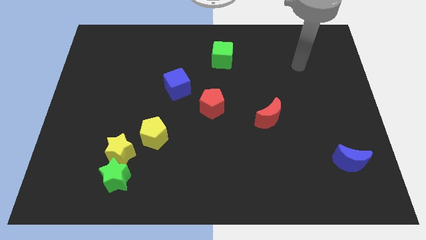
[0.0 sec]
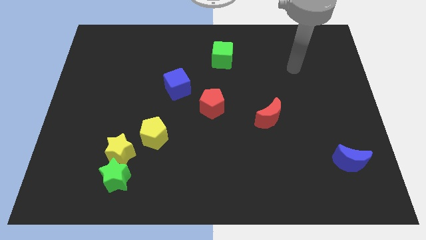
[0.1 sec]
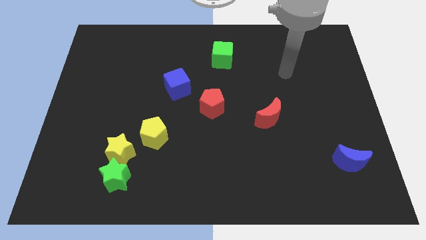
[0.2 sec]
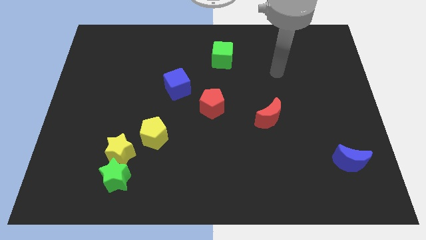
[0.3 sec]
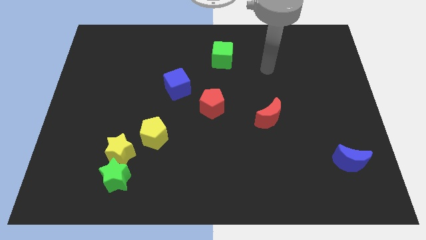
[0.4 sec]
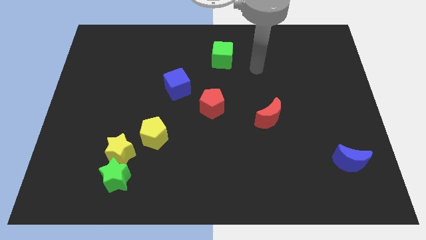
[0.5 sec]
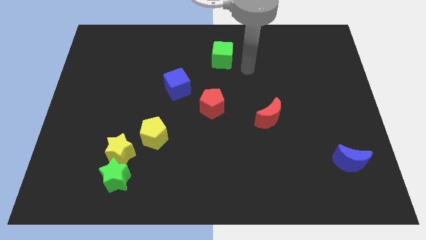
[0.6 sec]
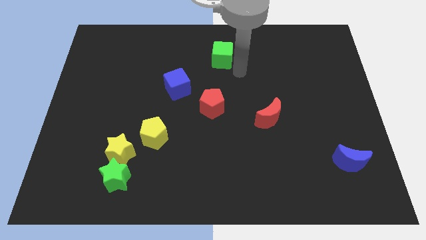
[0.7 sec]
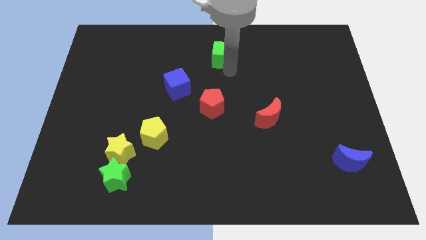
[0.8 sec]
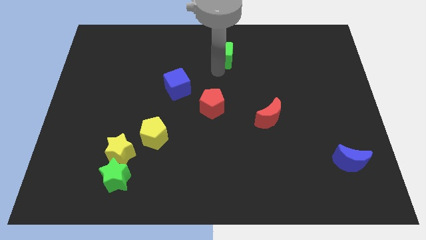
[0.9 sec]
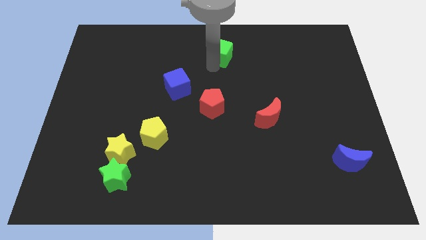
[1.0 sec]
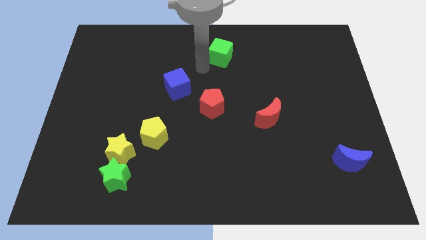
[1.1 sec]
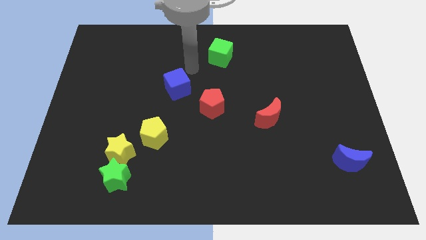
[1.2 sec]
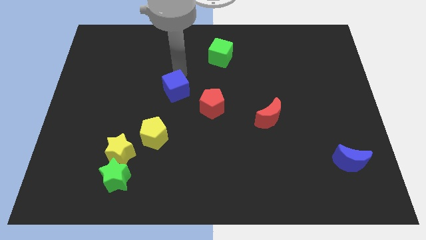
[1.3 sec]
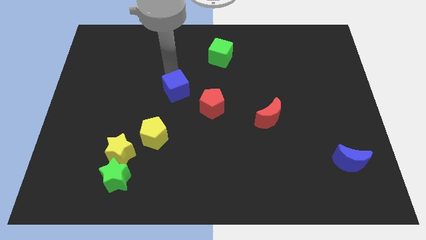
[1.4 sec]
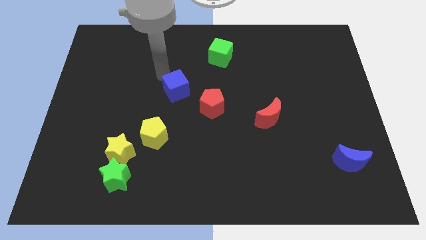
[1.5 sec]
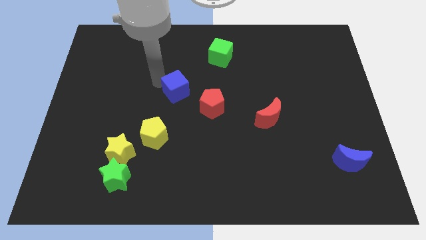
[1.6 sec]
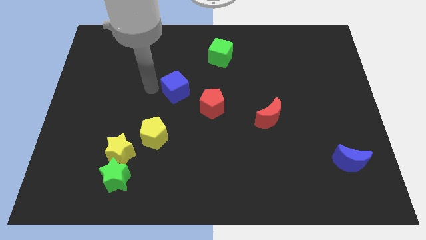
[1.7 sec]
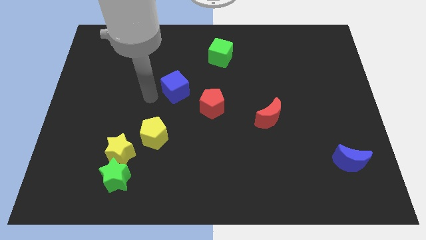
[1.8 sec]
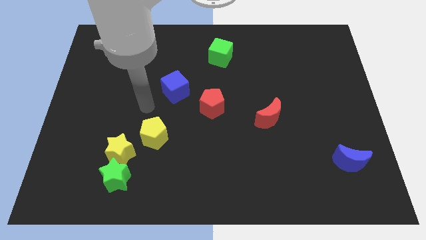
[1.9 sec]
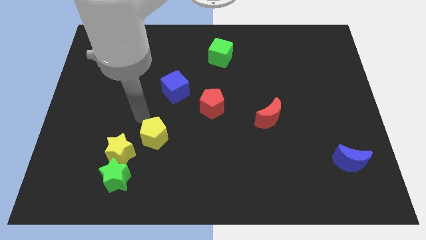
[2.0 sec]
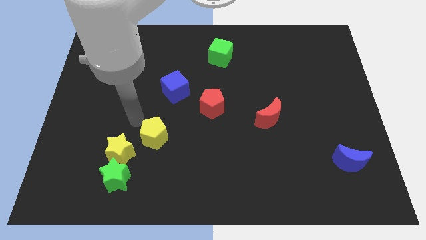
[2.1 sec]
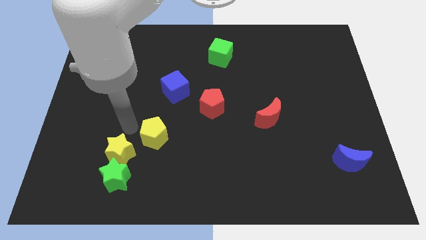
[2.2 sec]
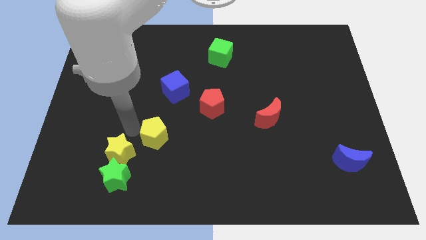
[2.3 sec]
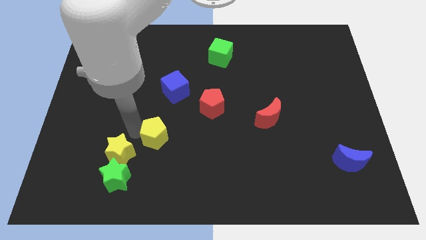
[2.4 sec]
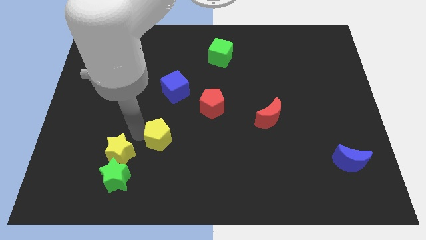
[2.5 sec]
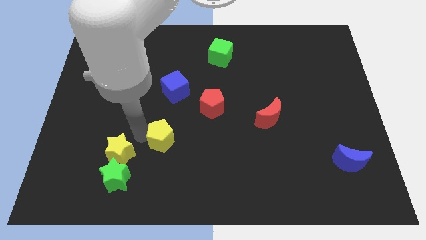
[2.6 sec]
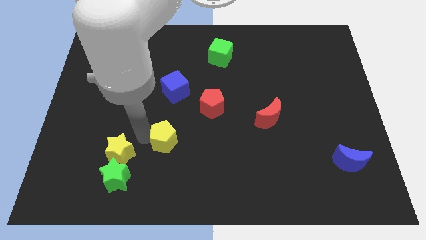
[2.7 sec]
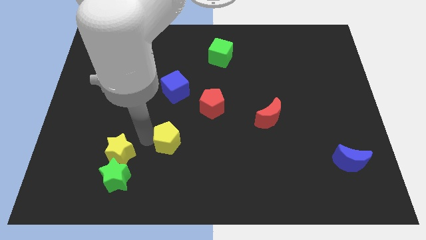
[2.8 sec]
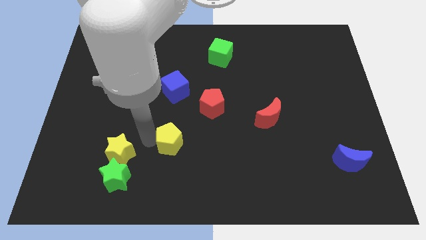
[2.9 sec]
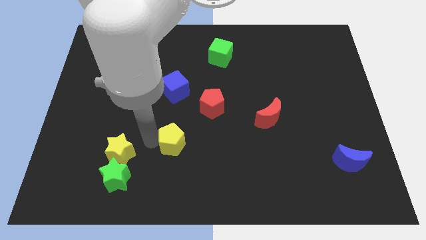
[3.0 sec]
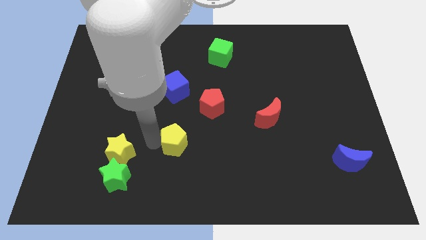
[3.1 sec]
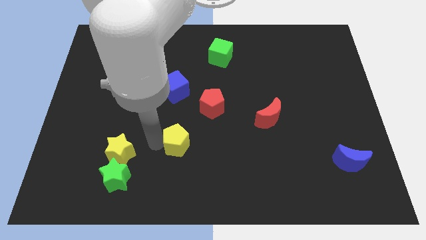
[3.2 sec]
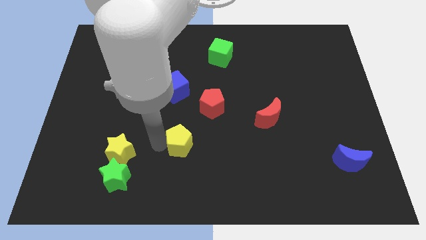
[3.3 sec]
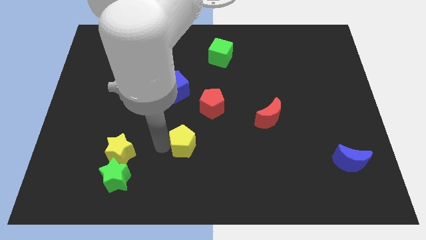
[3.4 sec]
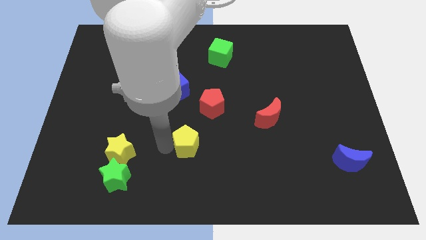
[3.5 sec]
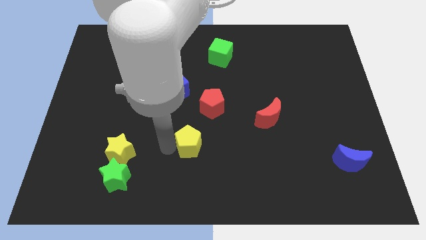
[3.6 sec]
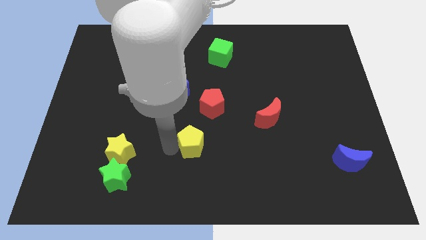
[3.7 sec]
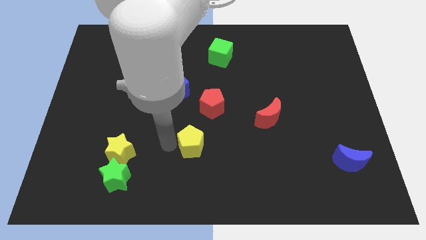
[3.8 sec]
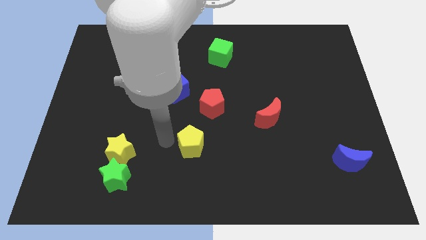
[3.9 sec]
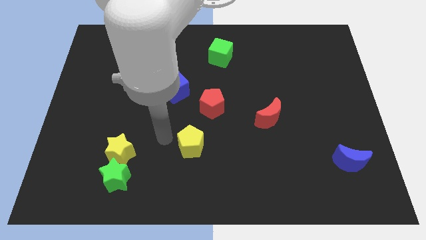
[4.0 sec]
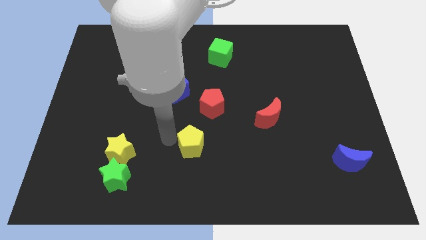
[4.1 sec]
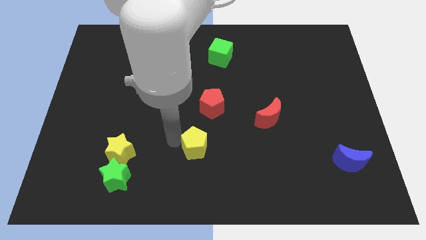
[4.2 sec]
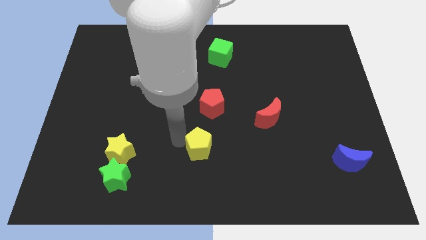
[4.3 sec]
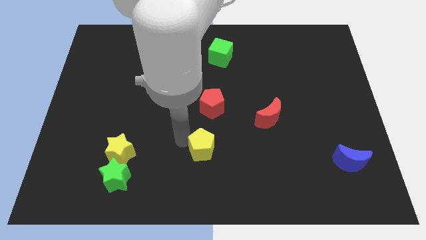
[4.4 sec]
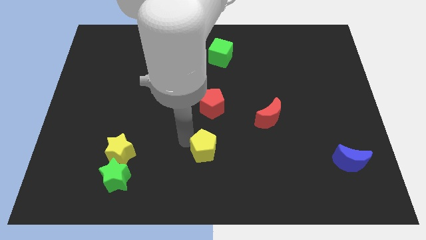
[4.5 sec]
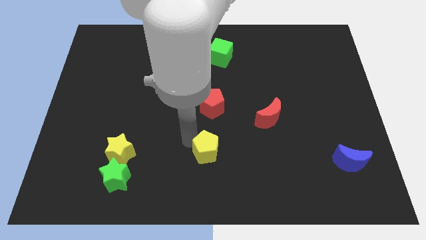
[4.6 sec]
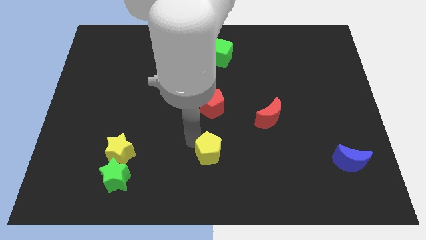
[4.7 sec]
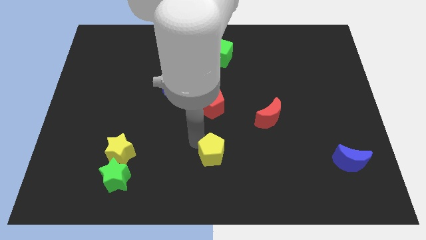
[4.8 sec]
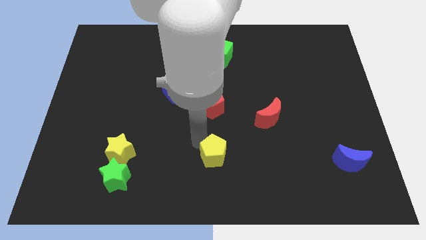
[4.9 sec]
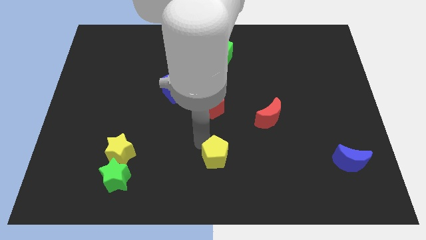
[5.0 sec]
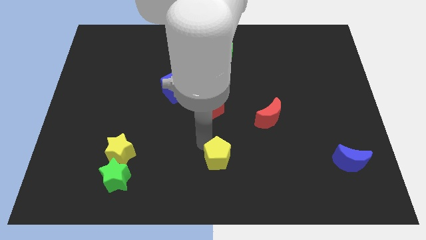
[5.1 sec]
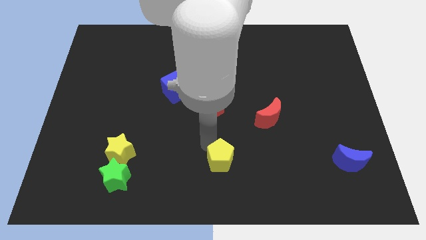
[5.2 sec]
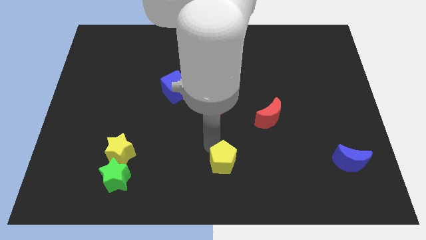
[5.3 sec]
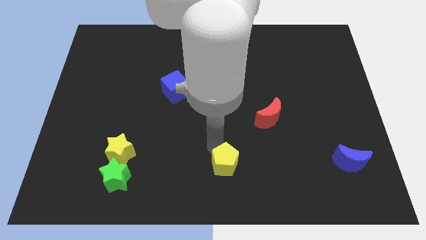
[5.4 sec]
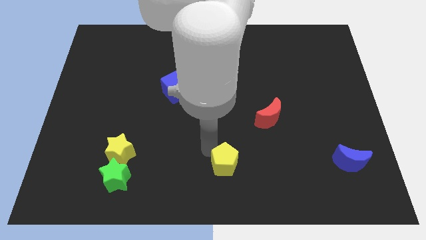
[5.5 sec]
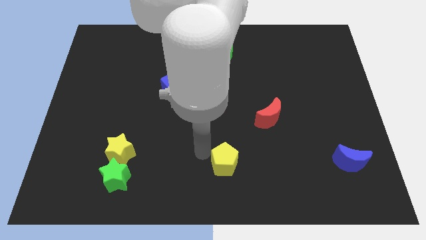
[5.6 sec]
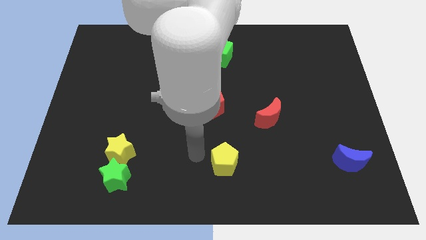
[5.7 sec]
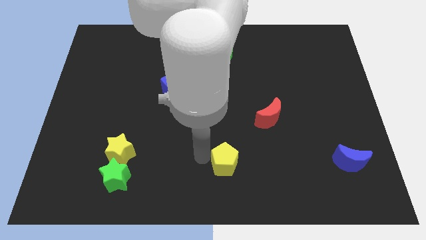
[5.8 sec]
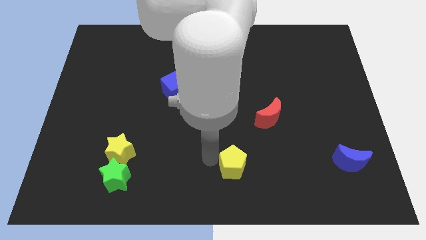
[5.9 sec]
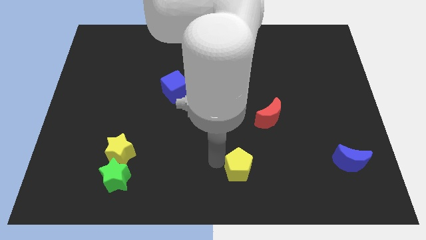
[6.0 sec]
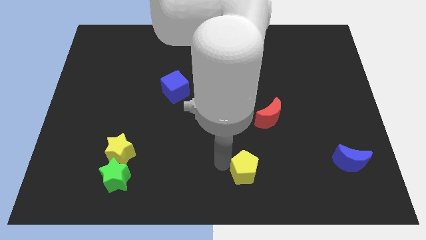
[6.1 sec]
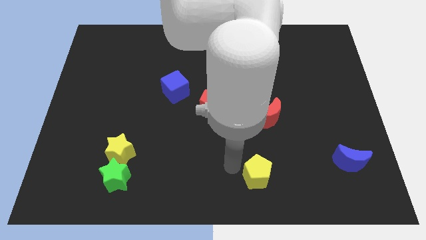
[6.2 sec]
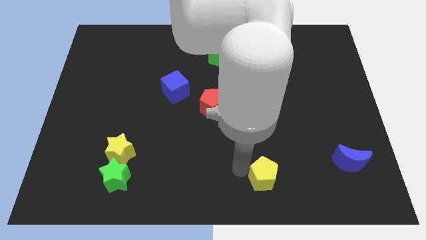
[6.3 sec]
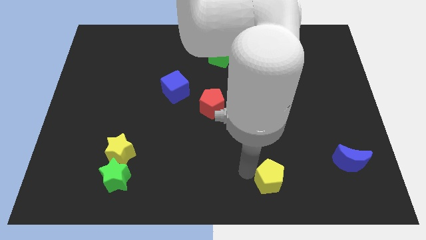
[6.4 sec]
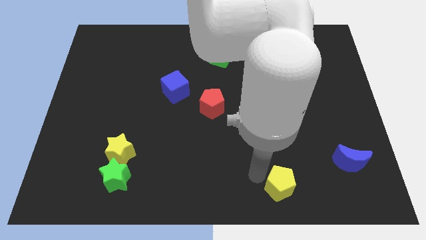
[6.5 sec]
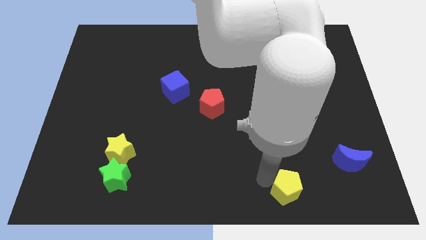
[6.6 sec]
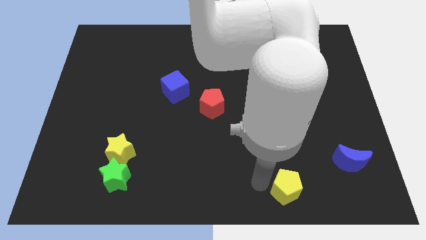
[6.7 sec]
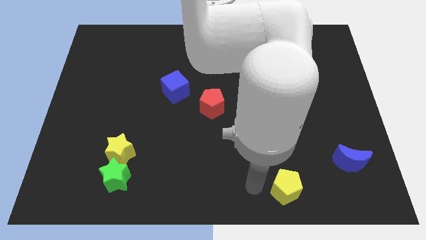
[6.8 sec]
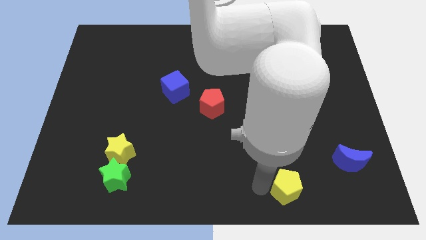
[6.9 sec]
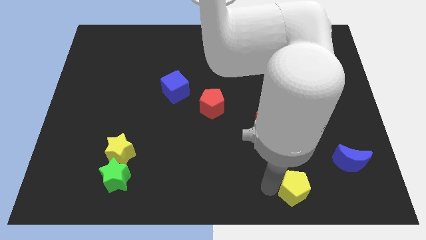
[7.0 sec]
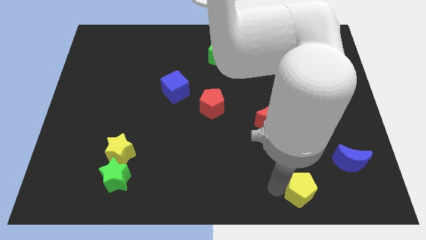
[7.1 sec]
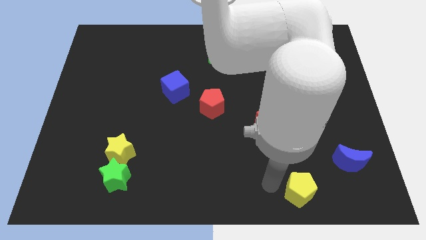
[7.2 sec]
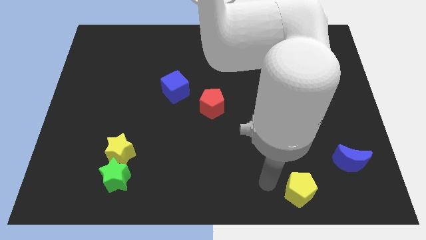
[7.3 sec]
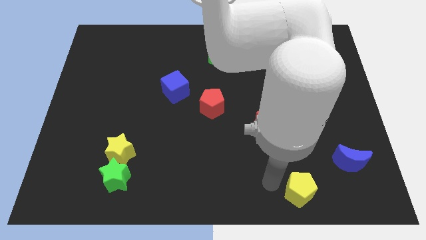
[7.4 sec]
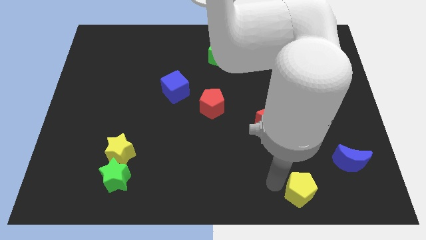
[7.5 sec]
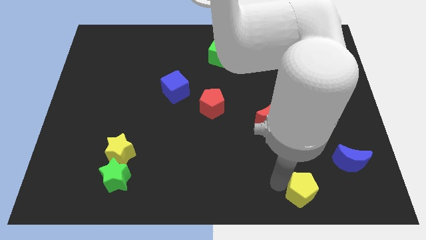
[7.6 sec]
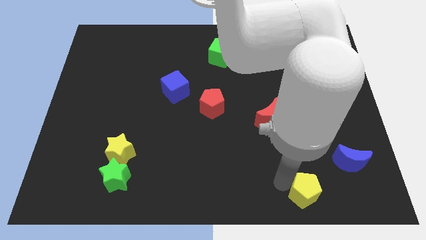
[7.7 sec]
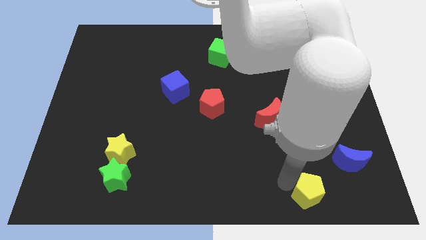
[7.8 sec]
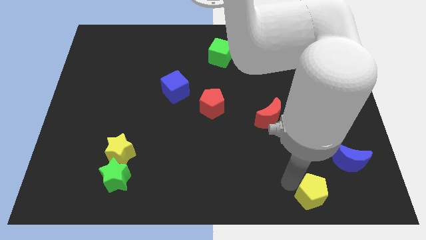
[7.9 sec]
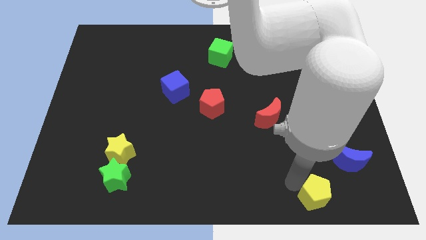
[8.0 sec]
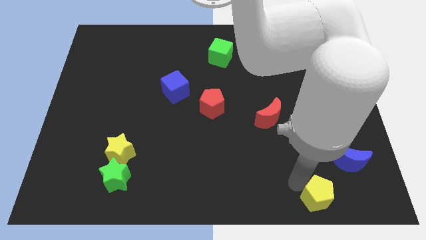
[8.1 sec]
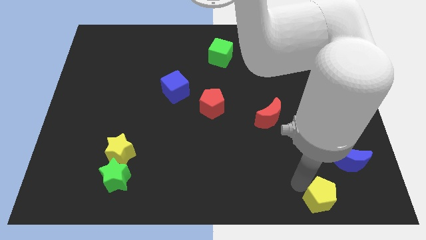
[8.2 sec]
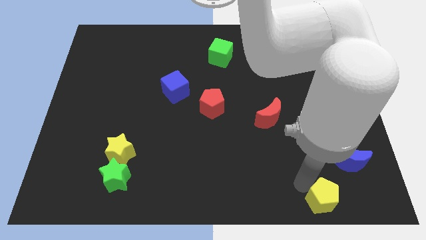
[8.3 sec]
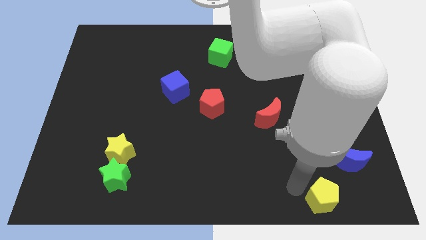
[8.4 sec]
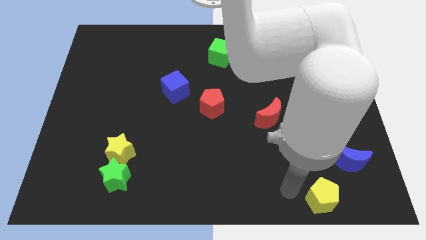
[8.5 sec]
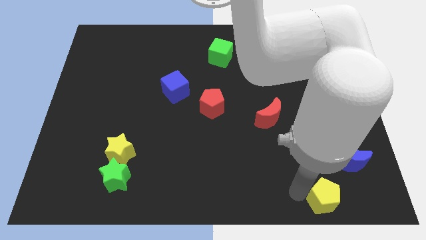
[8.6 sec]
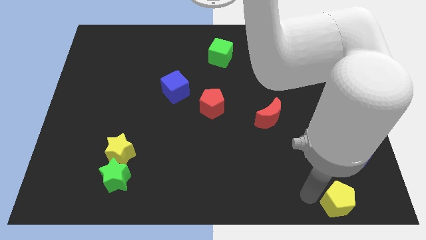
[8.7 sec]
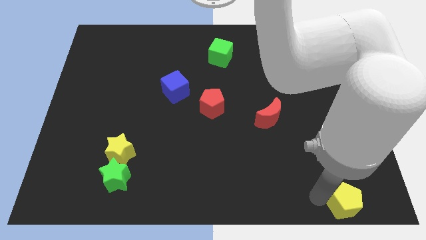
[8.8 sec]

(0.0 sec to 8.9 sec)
slide the yellow pentagon to the bottom right corner
